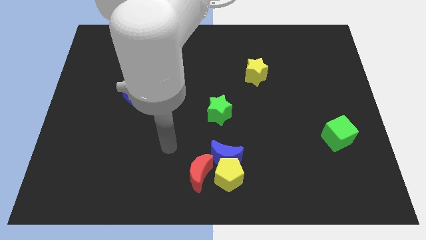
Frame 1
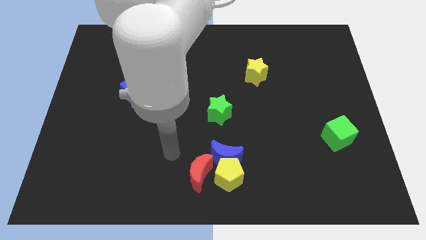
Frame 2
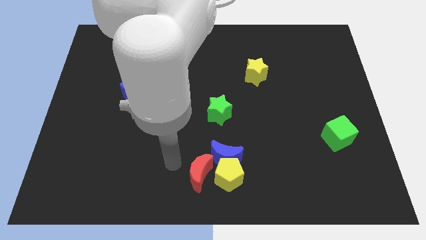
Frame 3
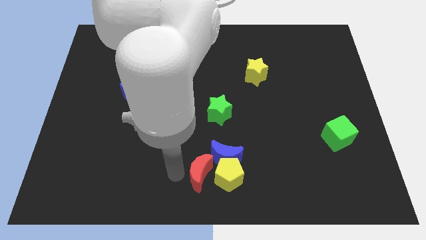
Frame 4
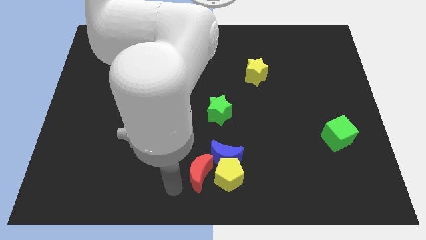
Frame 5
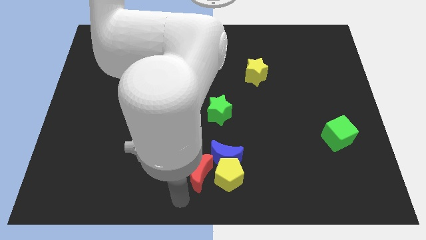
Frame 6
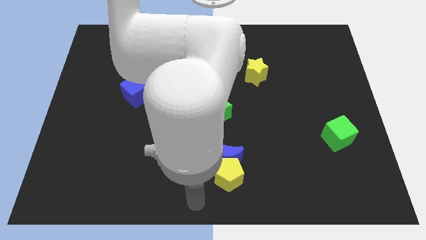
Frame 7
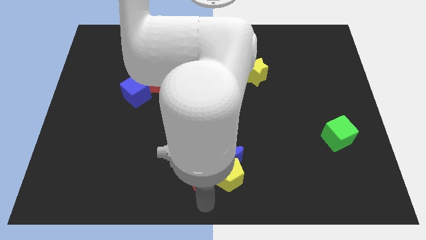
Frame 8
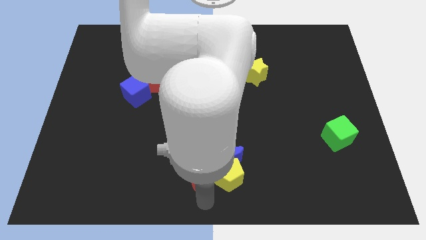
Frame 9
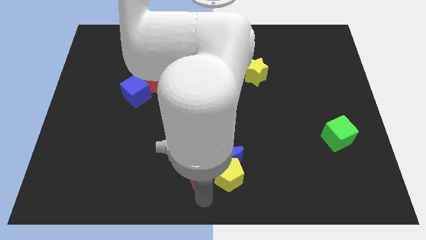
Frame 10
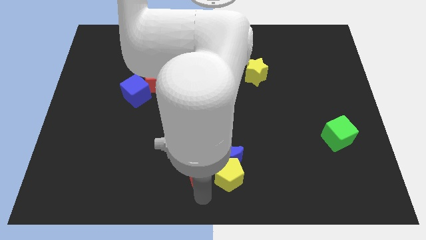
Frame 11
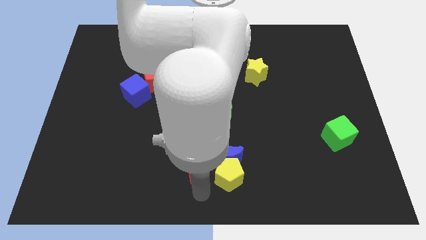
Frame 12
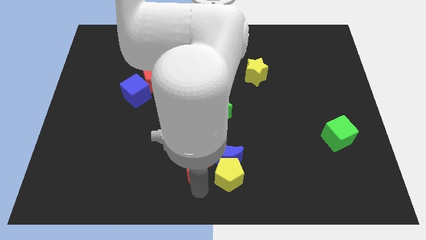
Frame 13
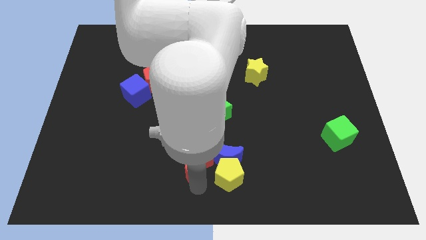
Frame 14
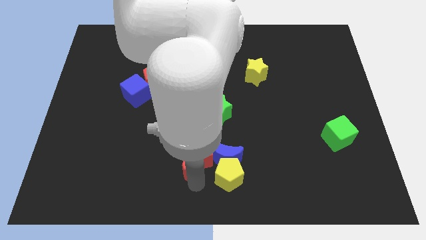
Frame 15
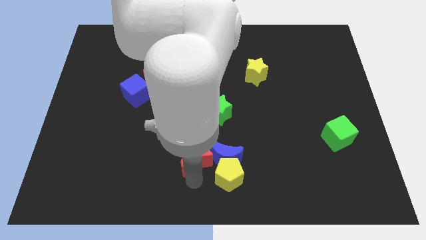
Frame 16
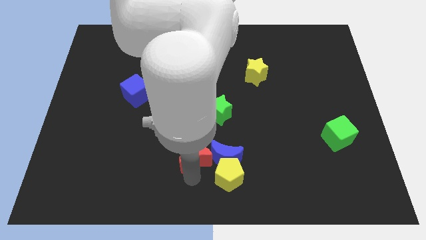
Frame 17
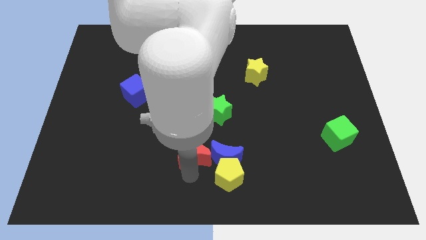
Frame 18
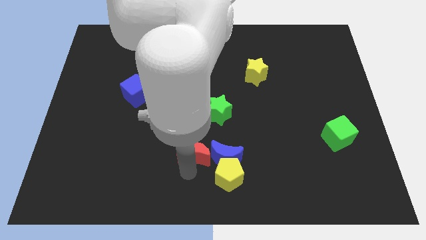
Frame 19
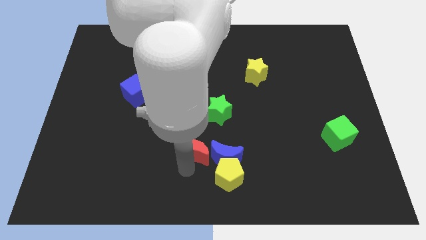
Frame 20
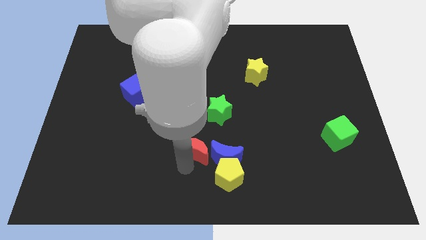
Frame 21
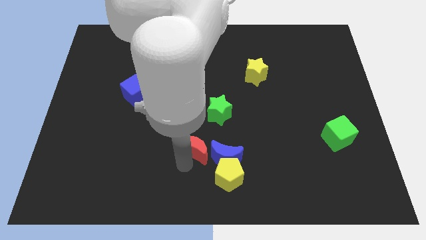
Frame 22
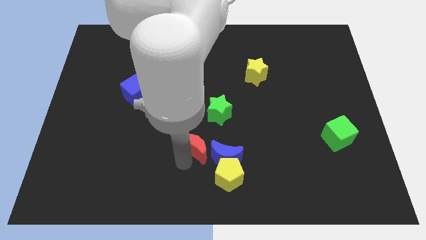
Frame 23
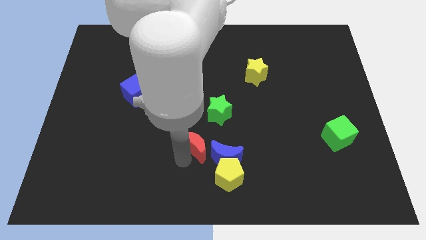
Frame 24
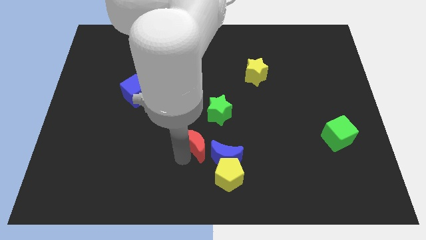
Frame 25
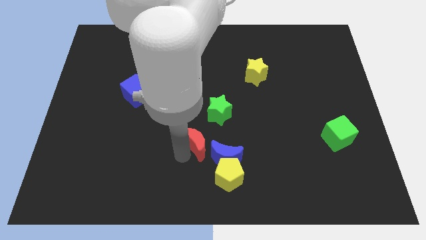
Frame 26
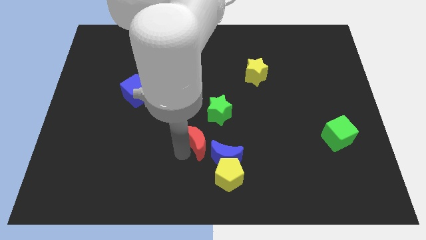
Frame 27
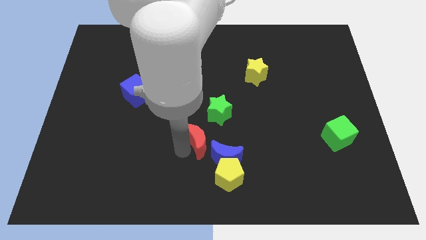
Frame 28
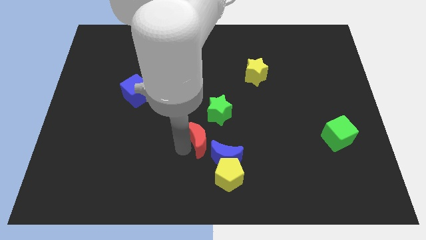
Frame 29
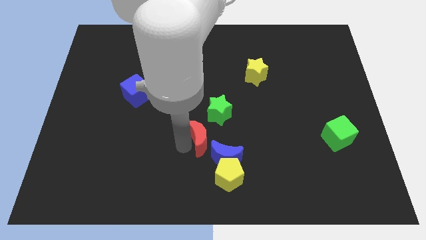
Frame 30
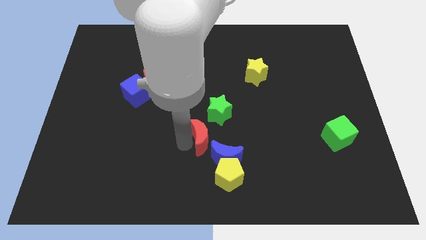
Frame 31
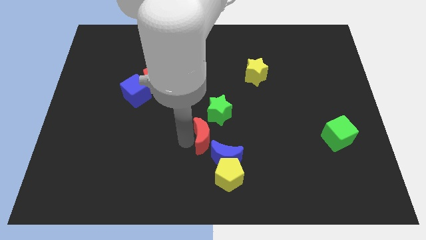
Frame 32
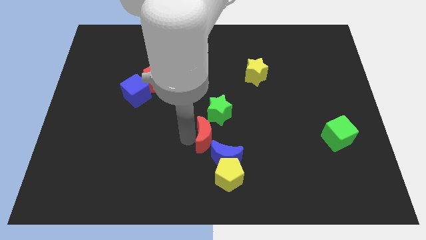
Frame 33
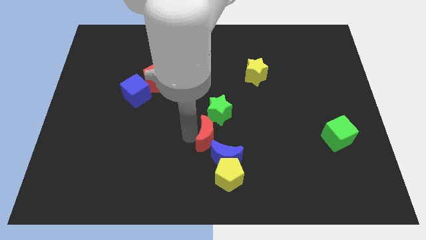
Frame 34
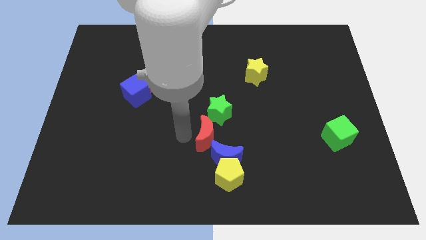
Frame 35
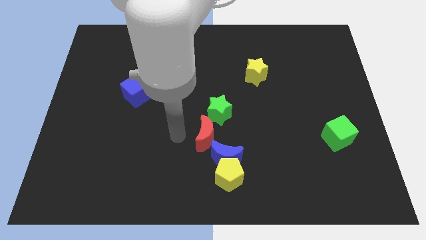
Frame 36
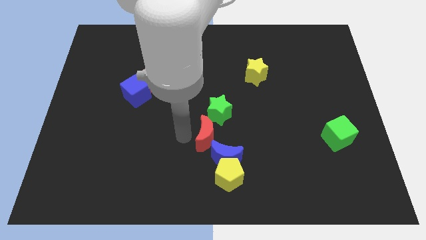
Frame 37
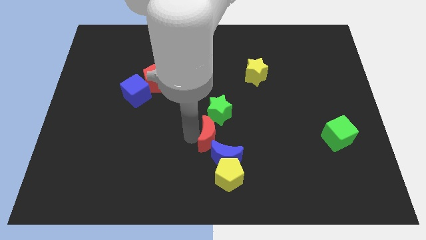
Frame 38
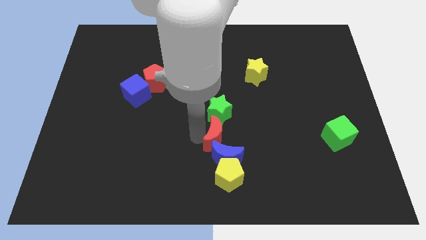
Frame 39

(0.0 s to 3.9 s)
slide the red moon a little upwards and then right

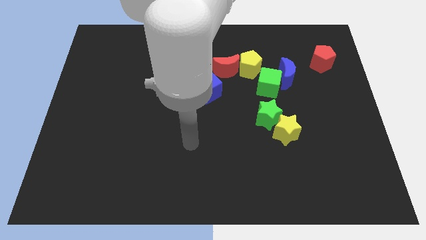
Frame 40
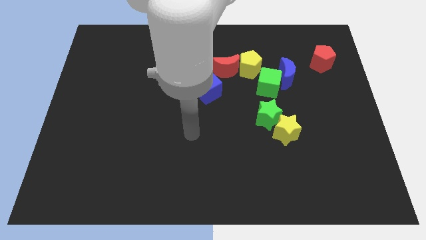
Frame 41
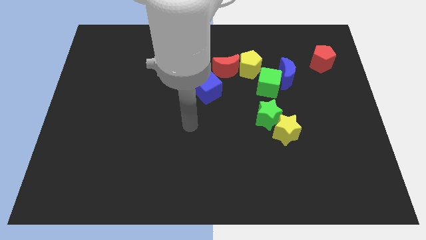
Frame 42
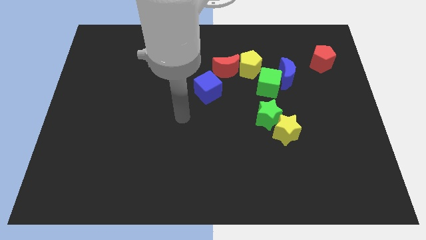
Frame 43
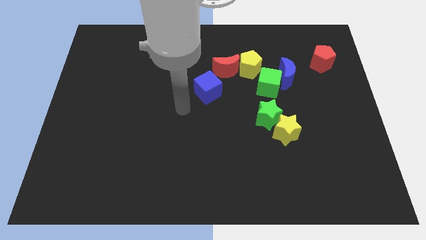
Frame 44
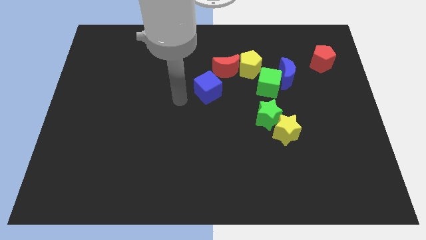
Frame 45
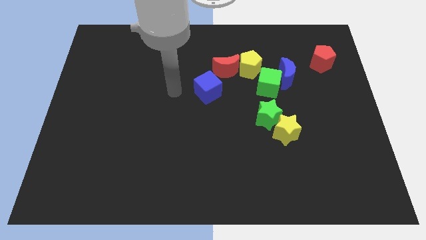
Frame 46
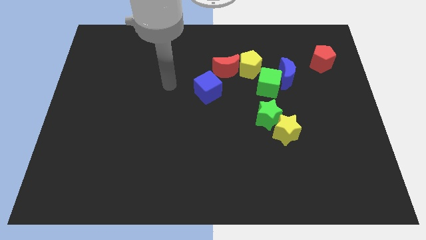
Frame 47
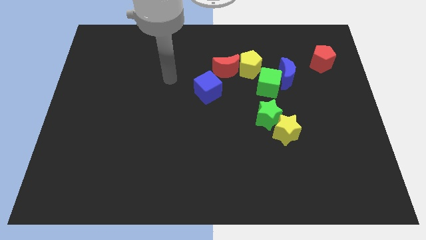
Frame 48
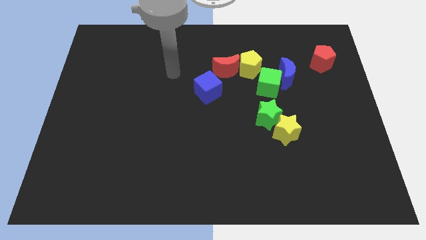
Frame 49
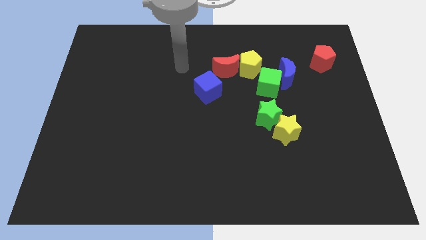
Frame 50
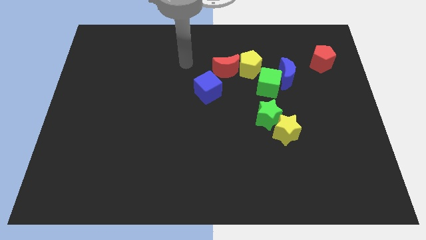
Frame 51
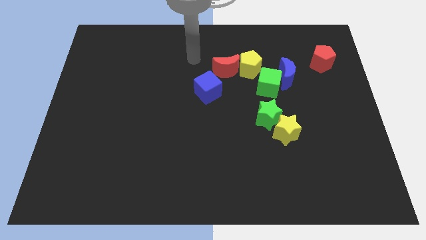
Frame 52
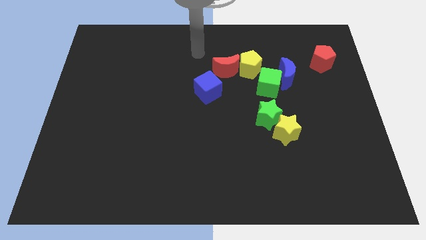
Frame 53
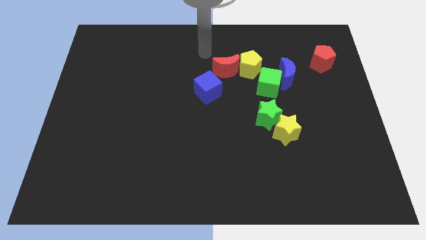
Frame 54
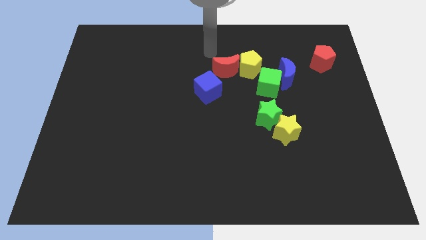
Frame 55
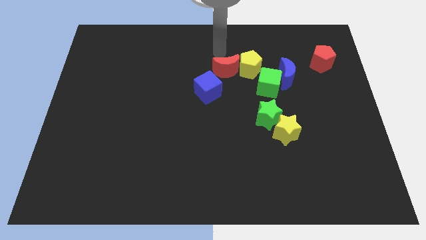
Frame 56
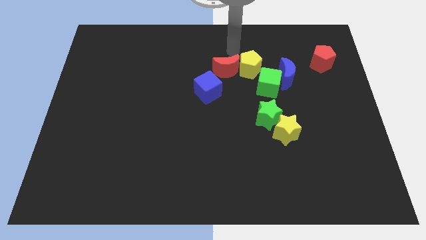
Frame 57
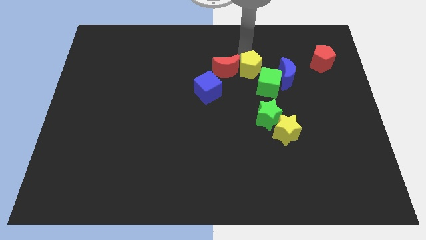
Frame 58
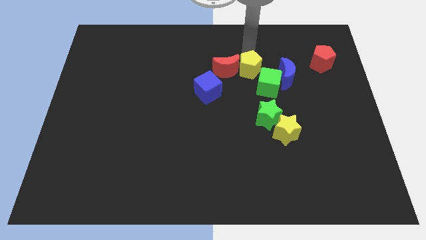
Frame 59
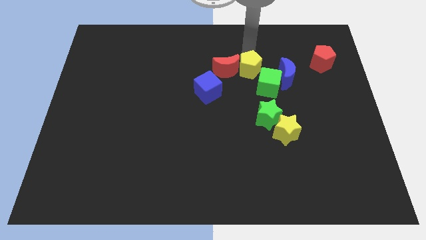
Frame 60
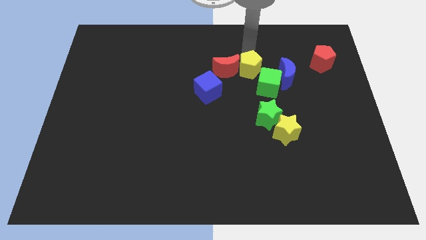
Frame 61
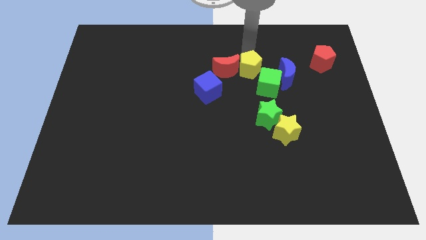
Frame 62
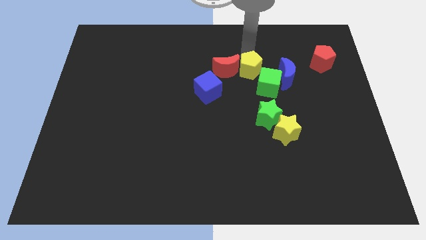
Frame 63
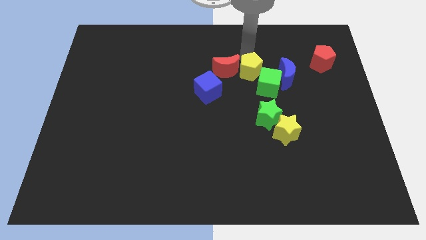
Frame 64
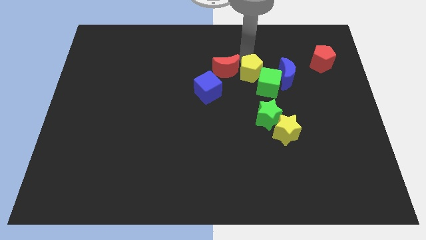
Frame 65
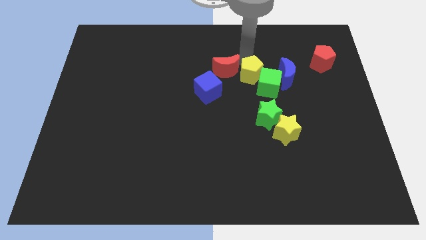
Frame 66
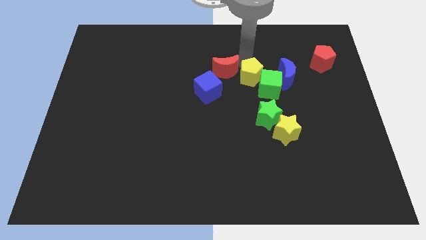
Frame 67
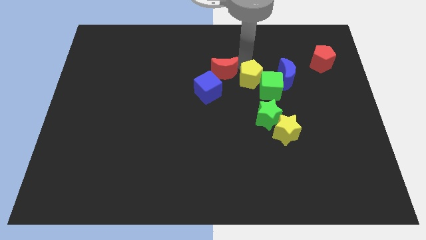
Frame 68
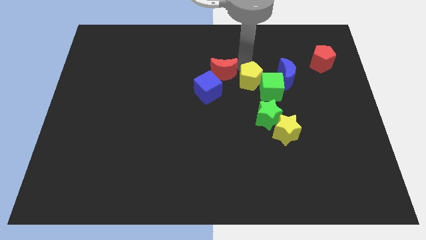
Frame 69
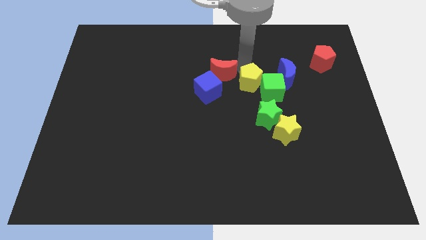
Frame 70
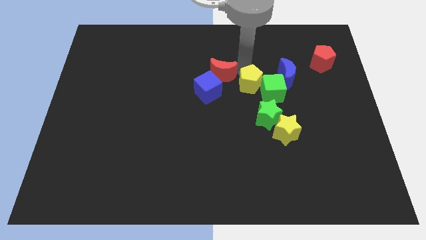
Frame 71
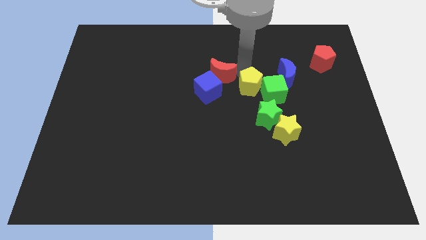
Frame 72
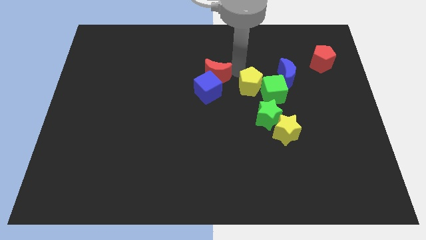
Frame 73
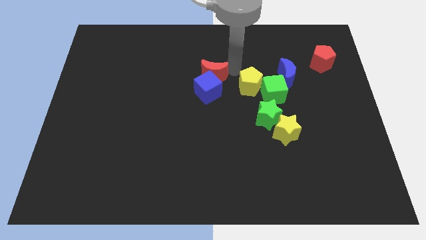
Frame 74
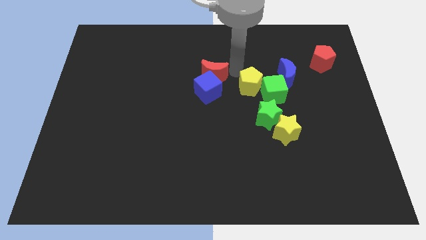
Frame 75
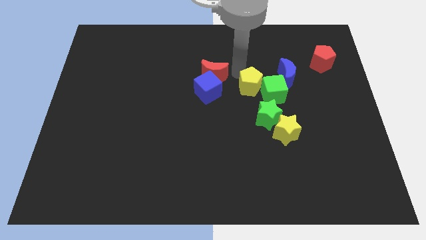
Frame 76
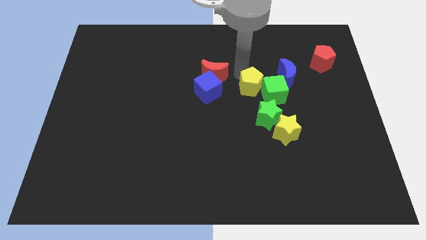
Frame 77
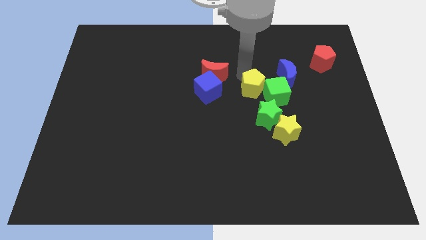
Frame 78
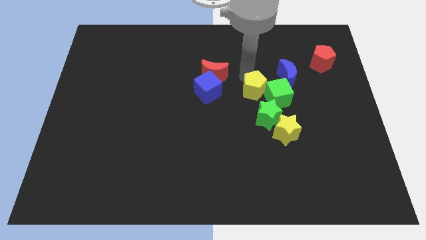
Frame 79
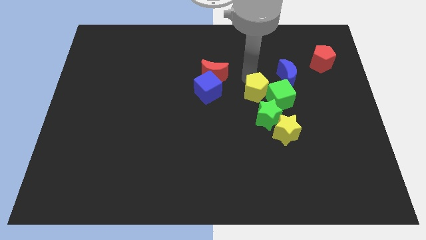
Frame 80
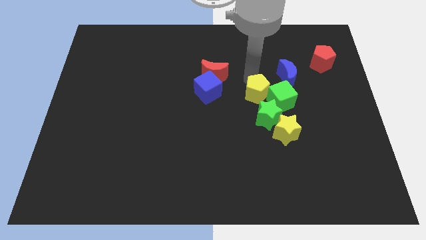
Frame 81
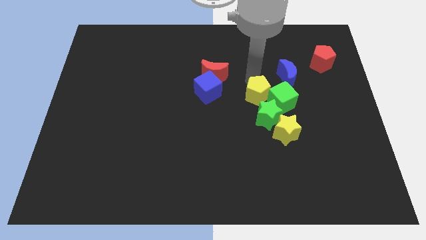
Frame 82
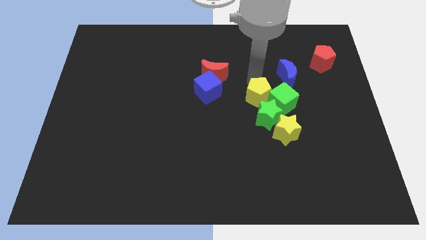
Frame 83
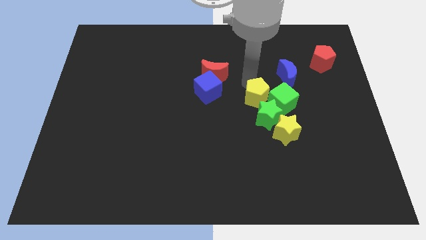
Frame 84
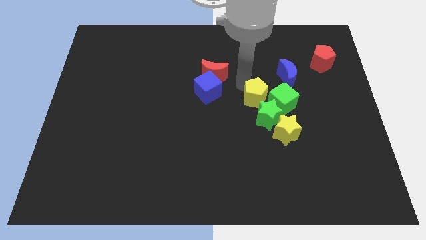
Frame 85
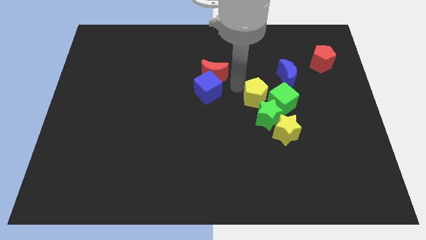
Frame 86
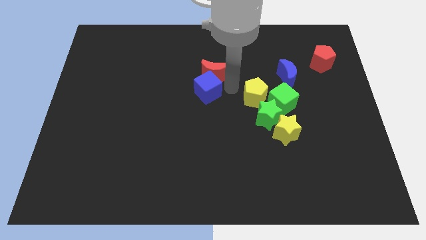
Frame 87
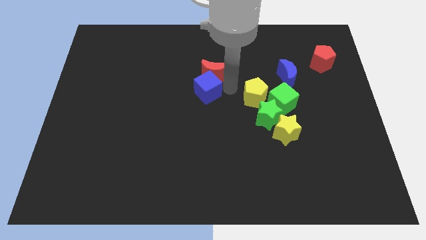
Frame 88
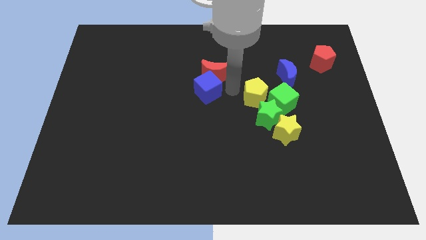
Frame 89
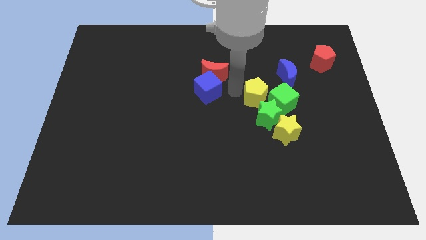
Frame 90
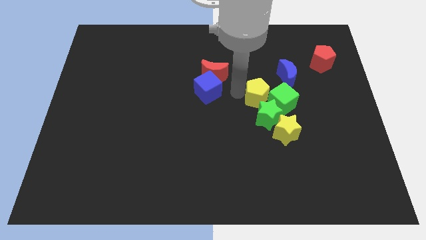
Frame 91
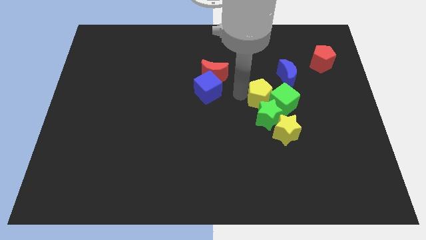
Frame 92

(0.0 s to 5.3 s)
slightly slide the yellow pentagon downwards and right
